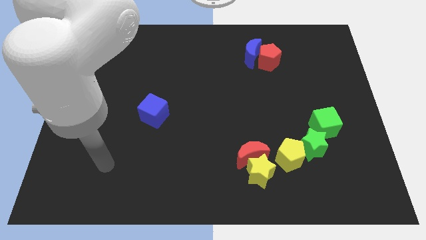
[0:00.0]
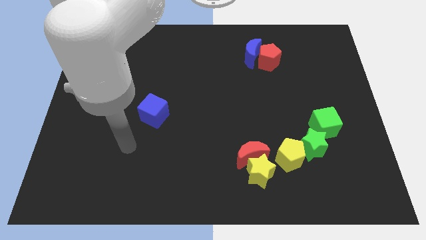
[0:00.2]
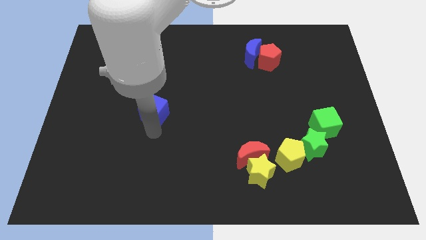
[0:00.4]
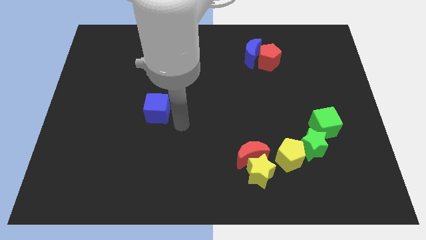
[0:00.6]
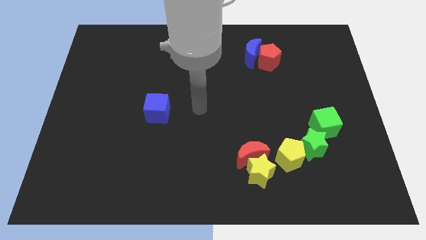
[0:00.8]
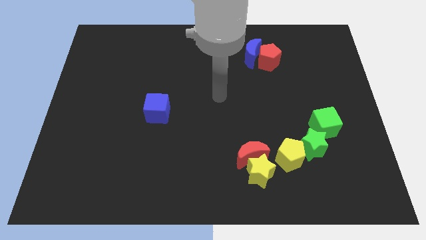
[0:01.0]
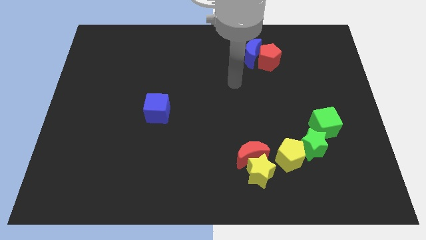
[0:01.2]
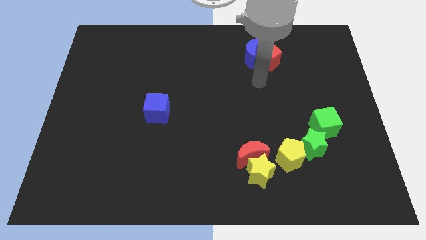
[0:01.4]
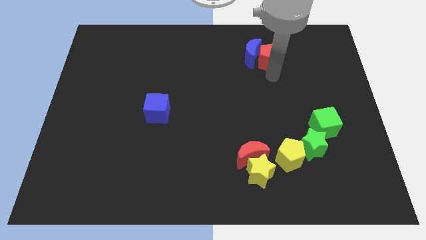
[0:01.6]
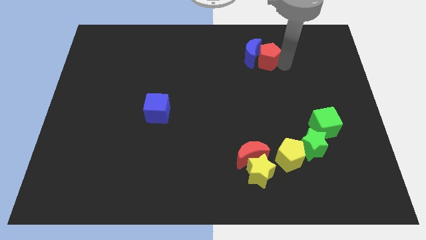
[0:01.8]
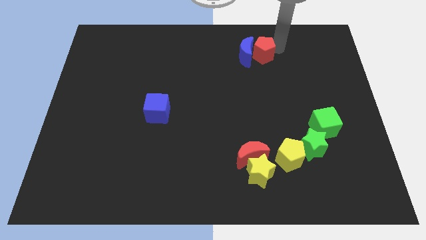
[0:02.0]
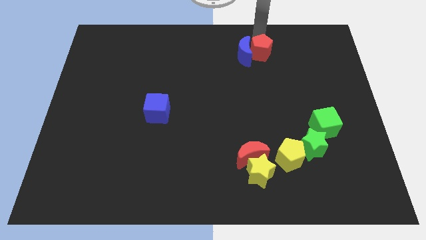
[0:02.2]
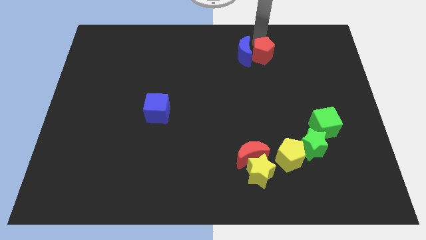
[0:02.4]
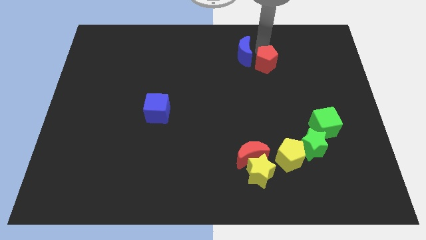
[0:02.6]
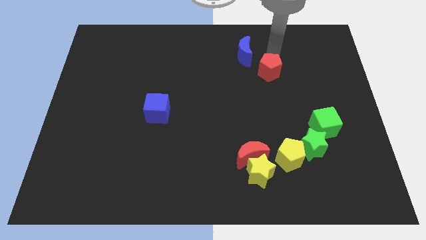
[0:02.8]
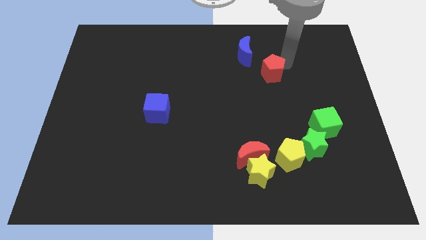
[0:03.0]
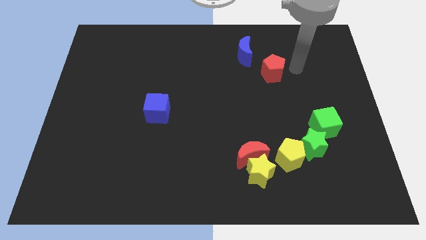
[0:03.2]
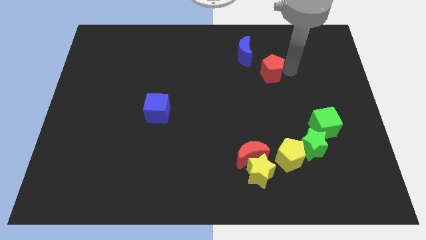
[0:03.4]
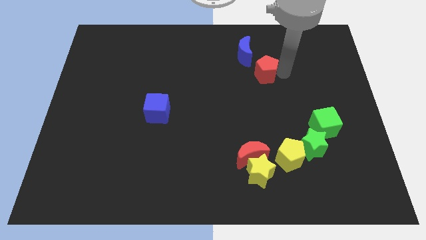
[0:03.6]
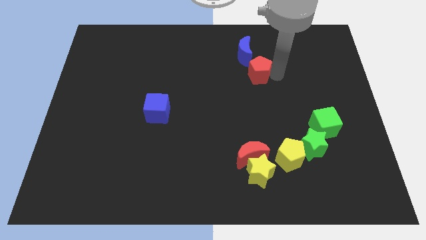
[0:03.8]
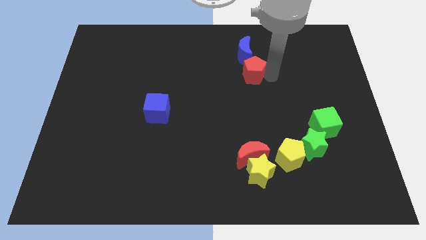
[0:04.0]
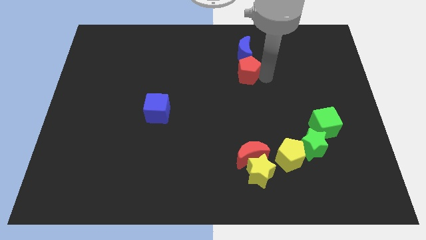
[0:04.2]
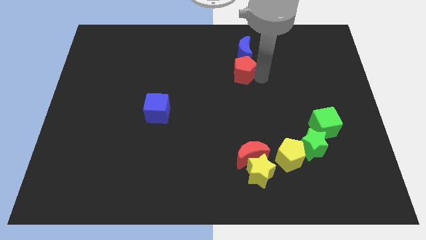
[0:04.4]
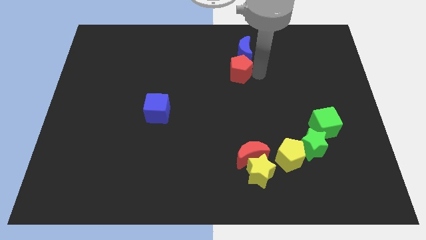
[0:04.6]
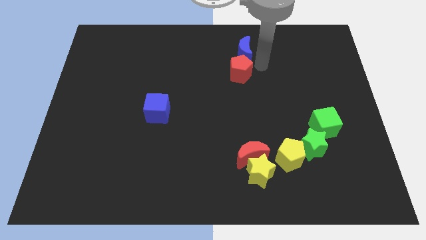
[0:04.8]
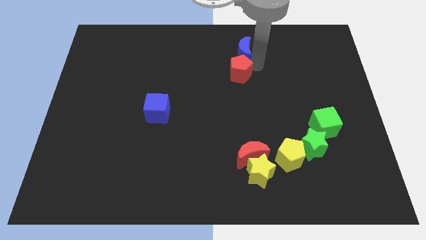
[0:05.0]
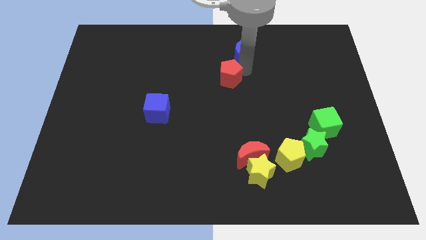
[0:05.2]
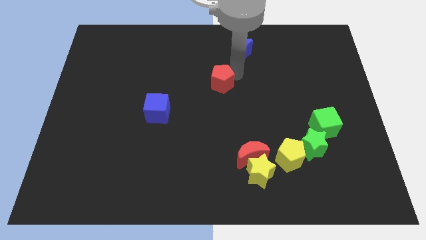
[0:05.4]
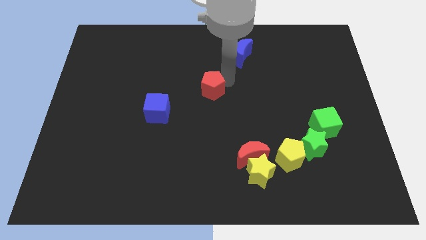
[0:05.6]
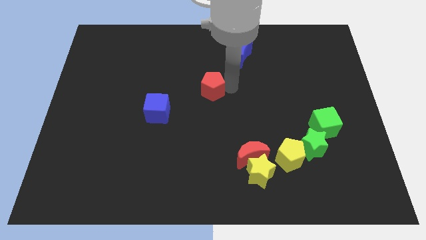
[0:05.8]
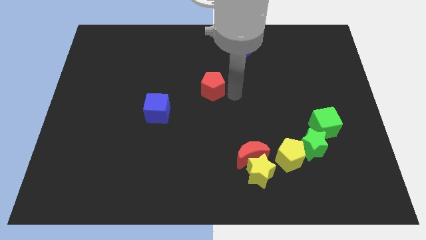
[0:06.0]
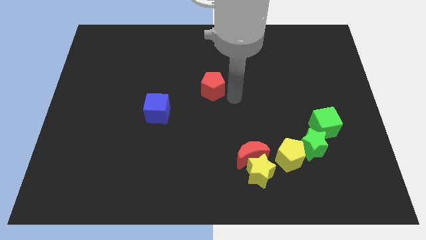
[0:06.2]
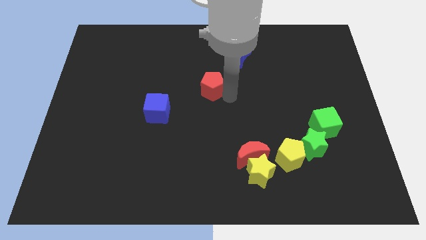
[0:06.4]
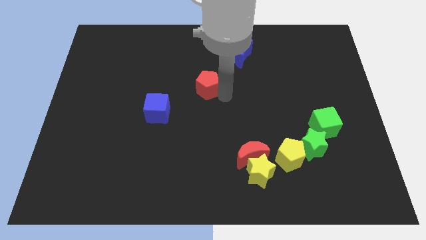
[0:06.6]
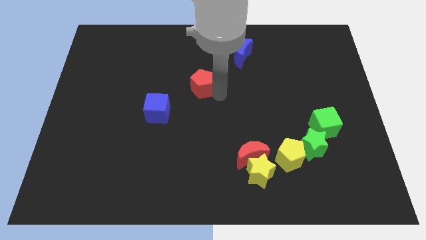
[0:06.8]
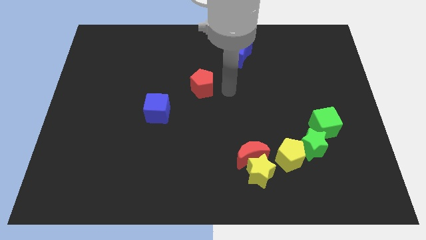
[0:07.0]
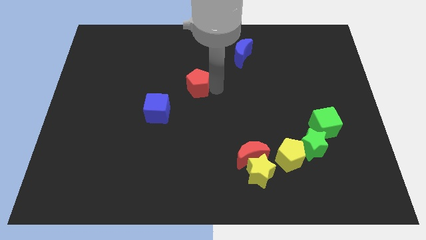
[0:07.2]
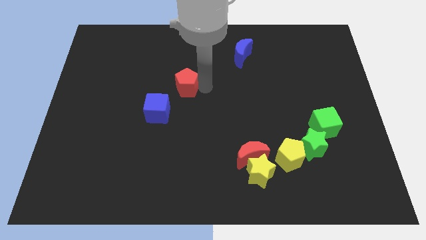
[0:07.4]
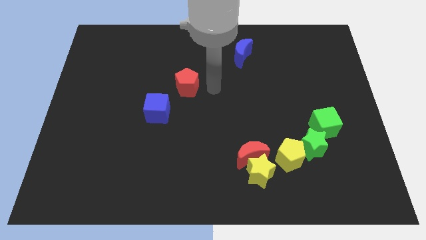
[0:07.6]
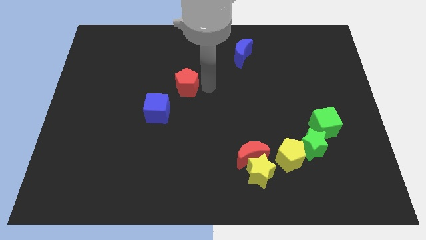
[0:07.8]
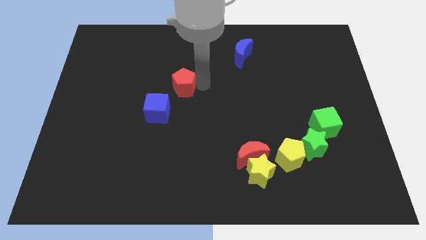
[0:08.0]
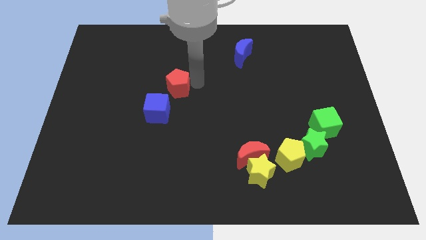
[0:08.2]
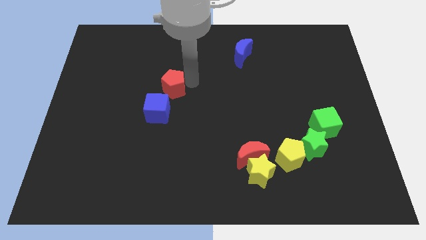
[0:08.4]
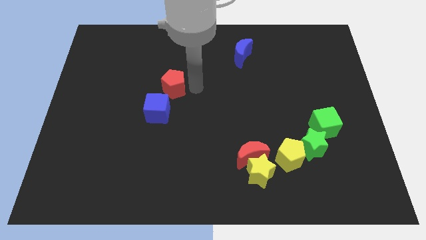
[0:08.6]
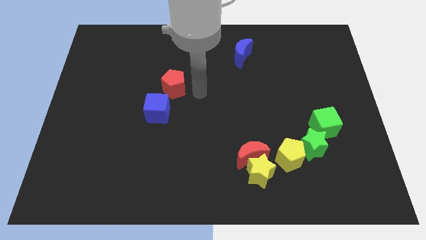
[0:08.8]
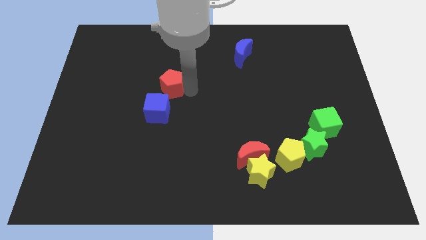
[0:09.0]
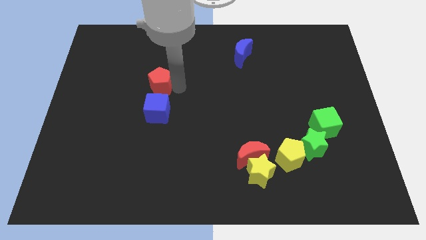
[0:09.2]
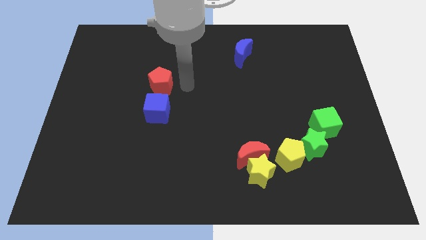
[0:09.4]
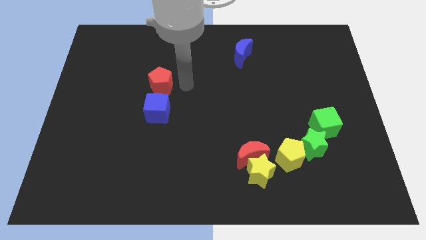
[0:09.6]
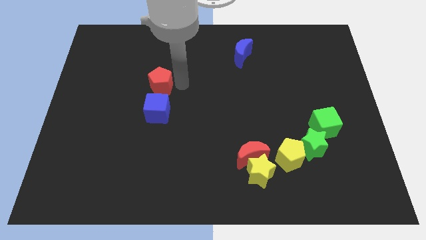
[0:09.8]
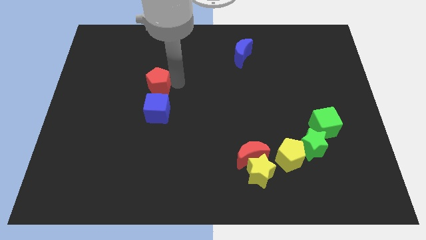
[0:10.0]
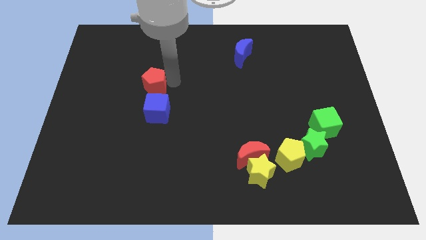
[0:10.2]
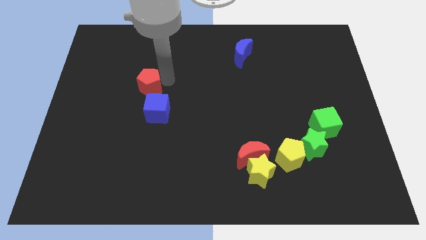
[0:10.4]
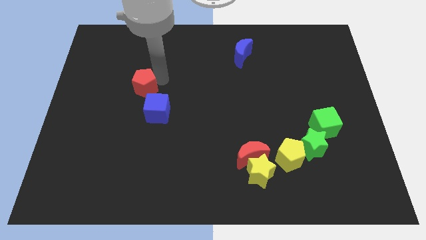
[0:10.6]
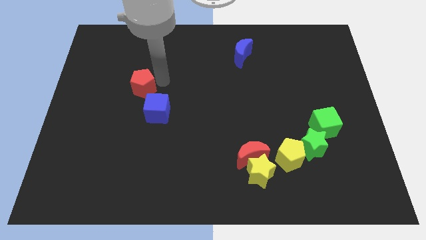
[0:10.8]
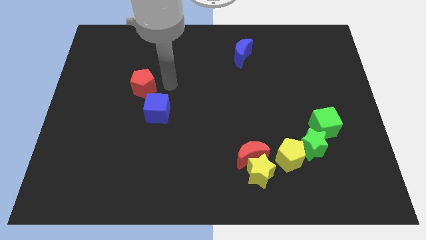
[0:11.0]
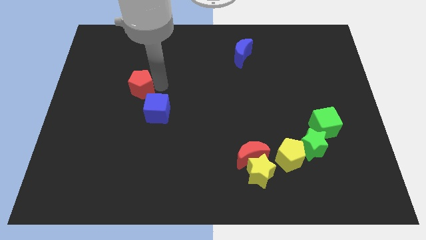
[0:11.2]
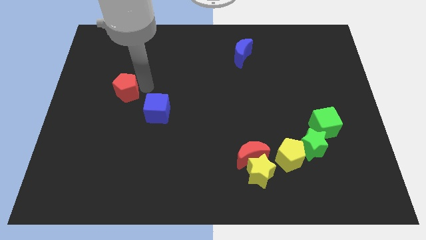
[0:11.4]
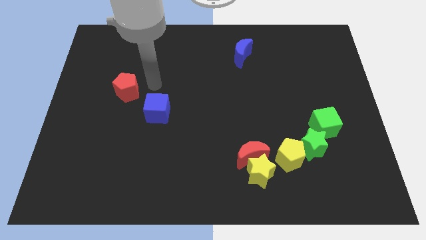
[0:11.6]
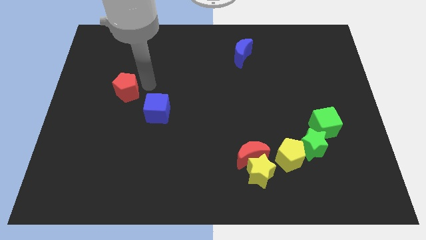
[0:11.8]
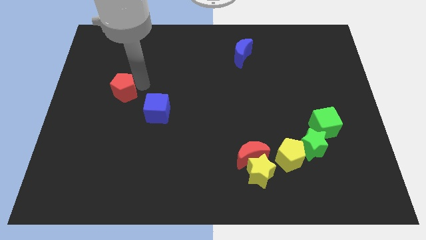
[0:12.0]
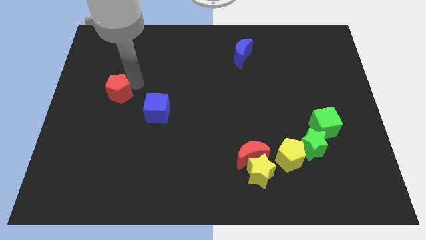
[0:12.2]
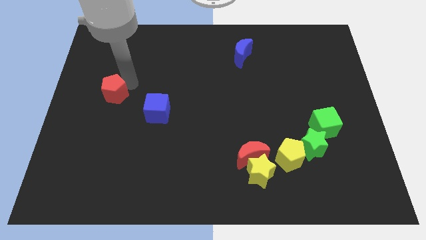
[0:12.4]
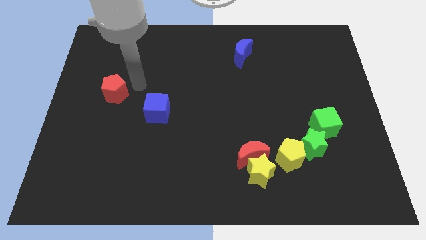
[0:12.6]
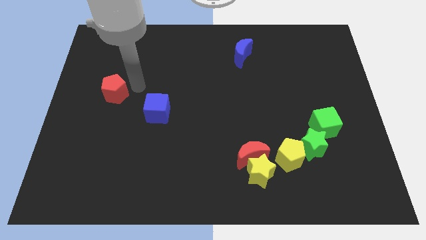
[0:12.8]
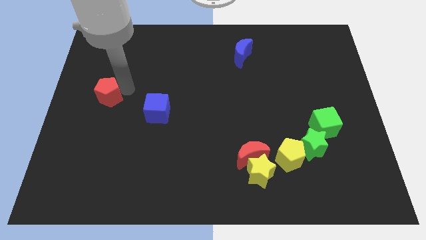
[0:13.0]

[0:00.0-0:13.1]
put the red pentagon to the left side
